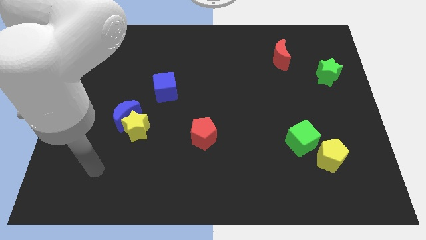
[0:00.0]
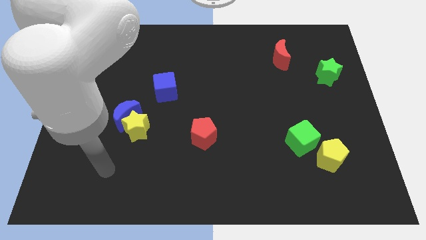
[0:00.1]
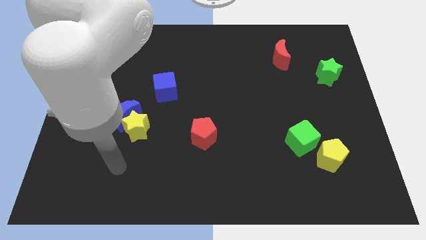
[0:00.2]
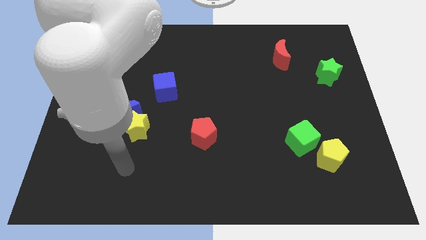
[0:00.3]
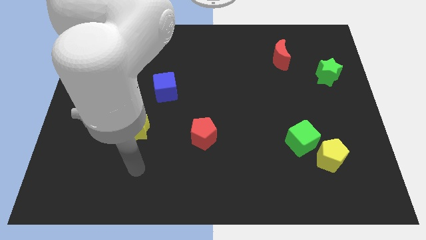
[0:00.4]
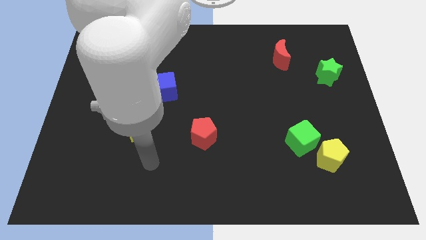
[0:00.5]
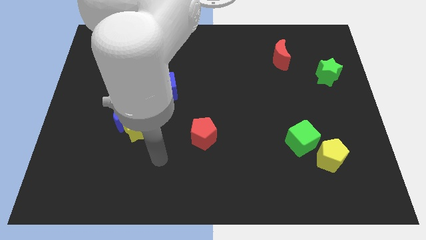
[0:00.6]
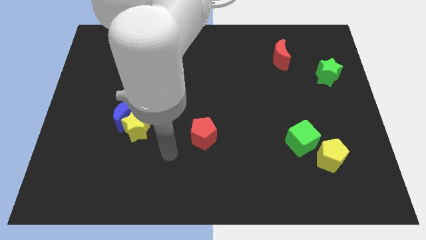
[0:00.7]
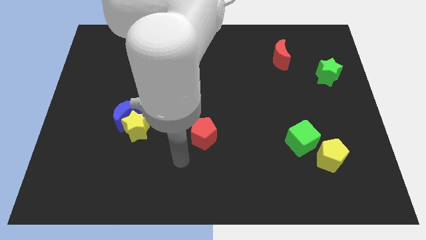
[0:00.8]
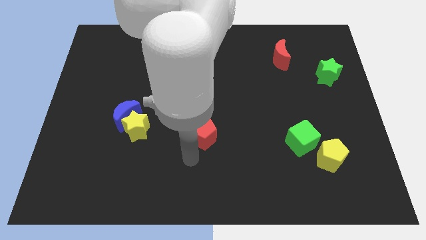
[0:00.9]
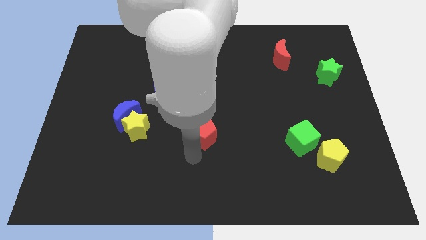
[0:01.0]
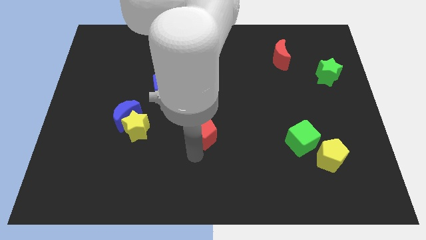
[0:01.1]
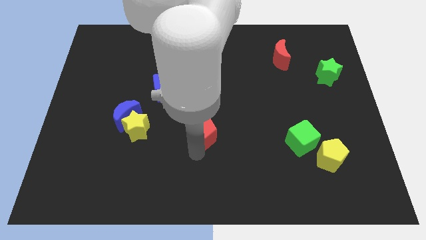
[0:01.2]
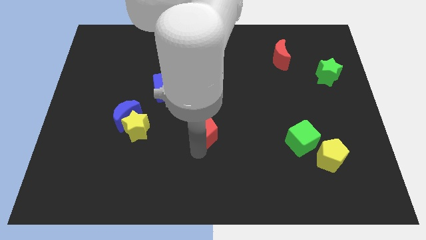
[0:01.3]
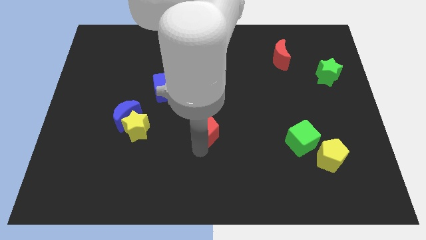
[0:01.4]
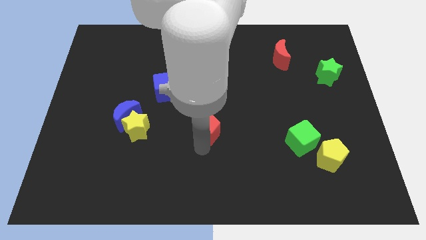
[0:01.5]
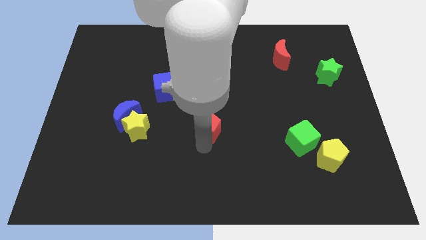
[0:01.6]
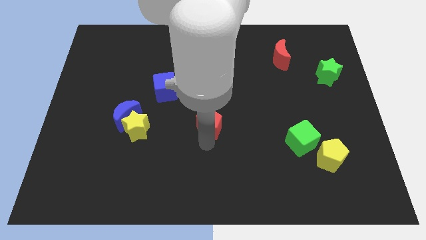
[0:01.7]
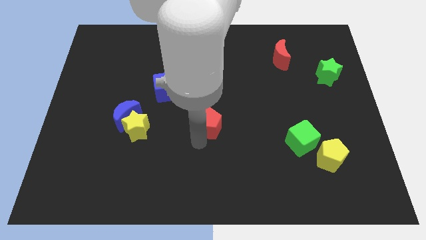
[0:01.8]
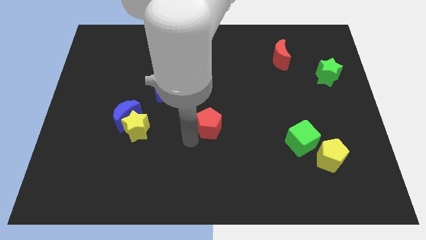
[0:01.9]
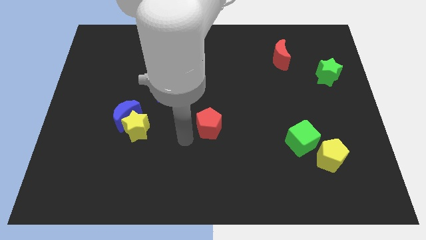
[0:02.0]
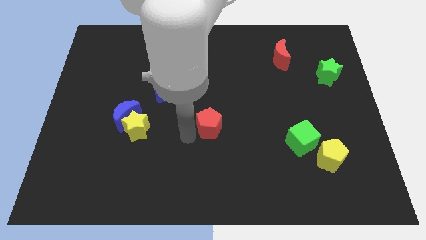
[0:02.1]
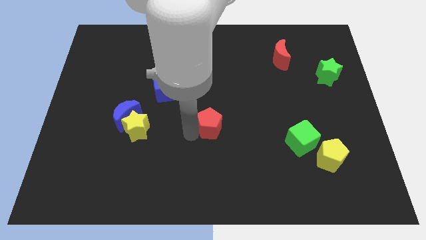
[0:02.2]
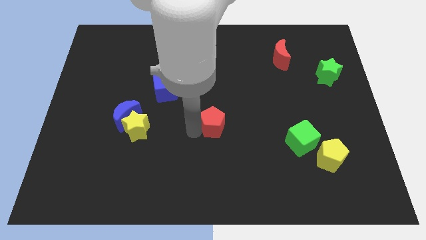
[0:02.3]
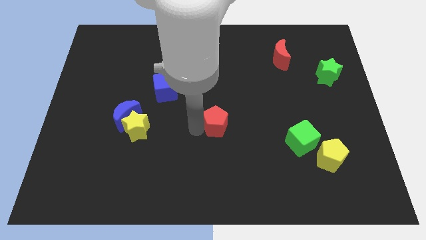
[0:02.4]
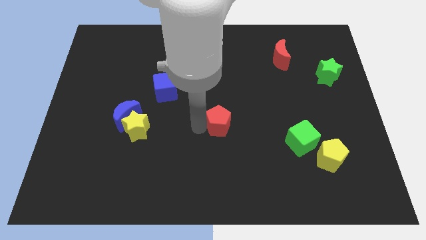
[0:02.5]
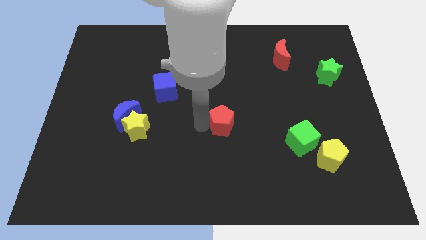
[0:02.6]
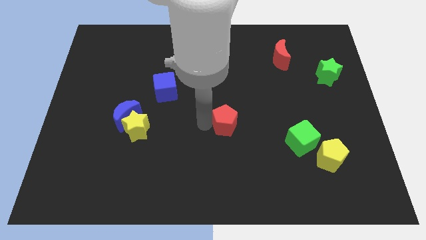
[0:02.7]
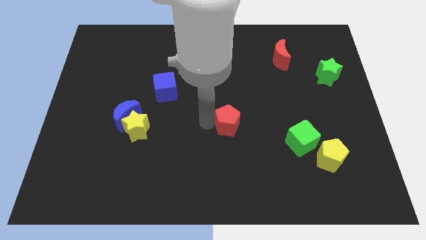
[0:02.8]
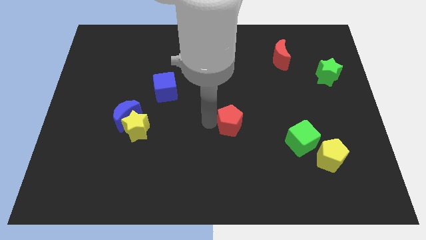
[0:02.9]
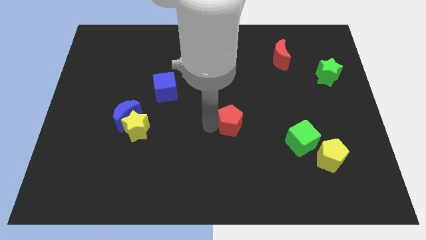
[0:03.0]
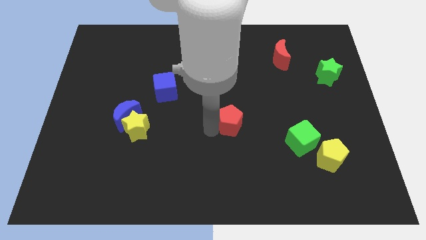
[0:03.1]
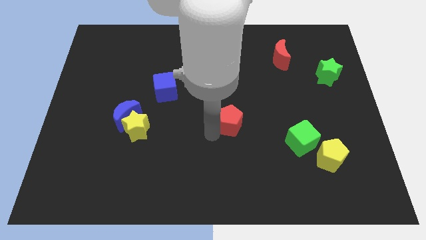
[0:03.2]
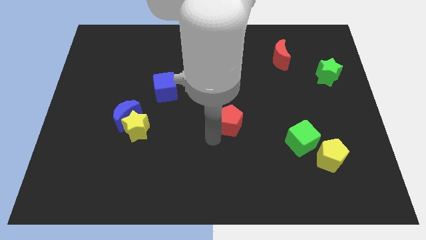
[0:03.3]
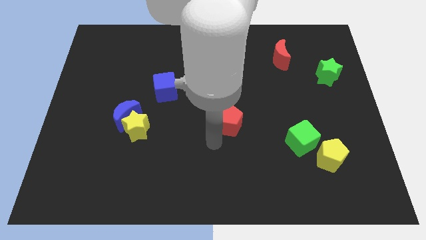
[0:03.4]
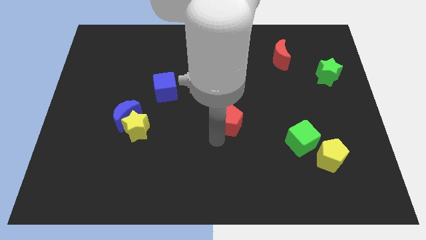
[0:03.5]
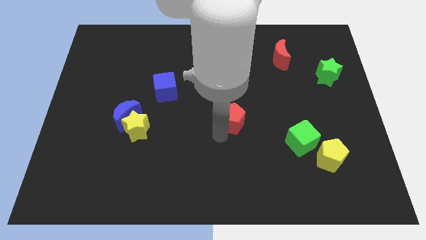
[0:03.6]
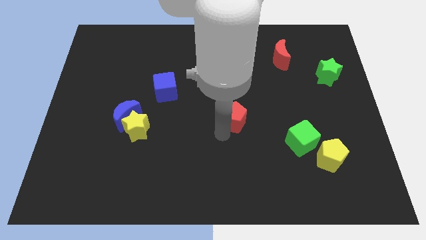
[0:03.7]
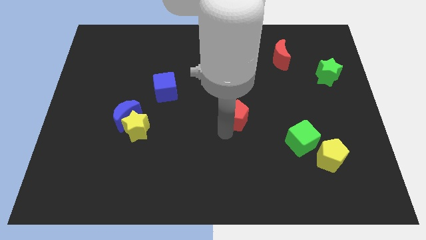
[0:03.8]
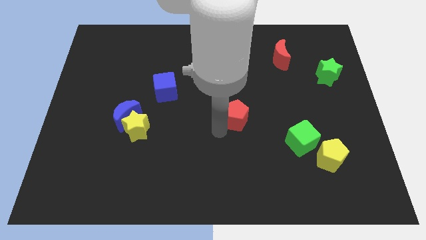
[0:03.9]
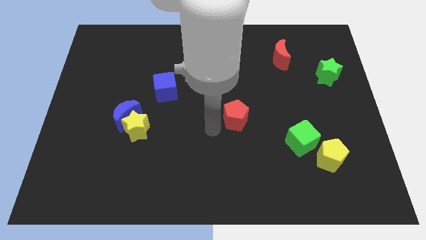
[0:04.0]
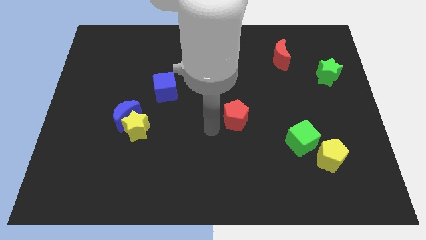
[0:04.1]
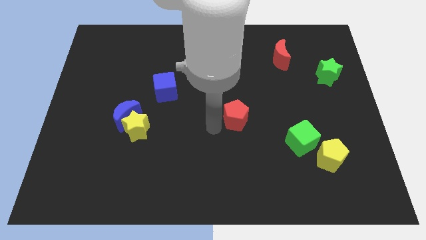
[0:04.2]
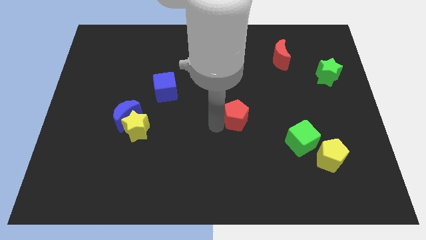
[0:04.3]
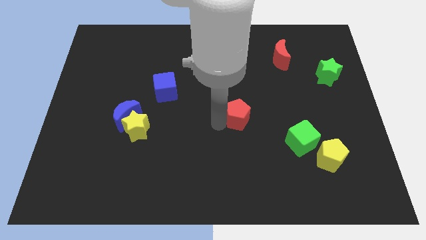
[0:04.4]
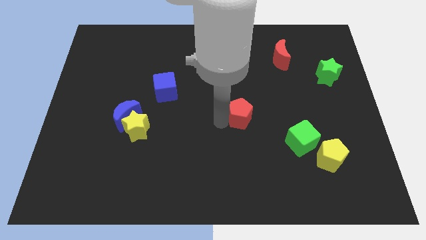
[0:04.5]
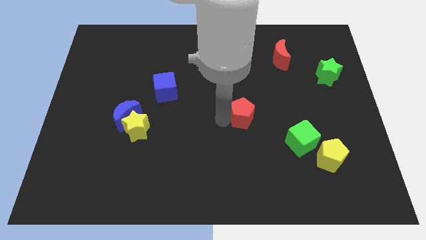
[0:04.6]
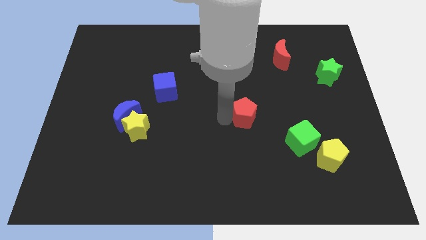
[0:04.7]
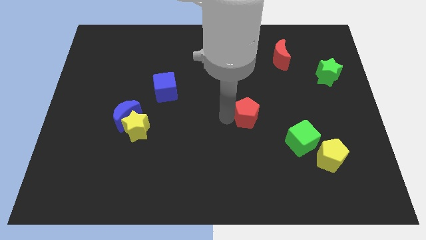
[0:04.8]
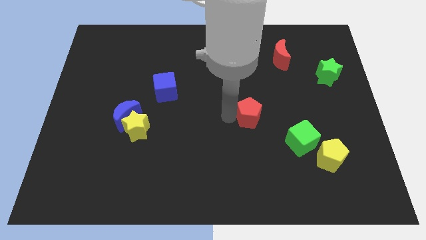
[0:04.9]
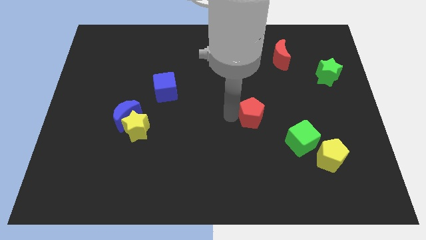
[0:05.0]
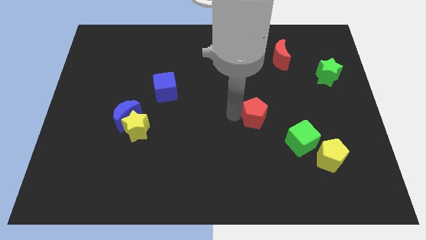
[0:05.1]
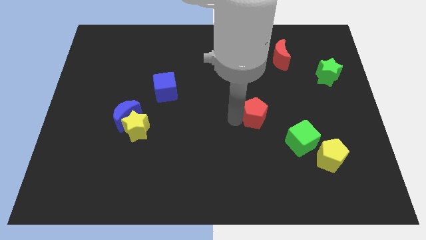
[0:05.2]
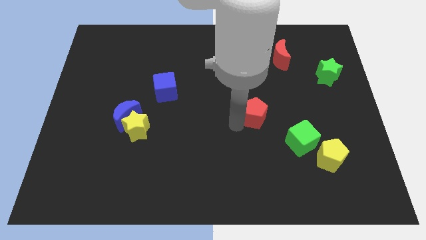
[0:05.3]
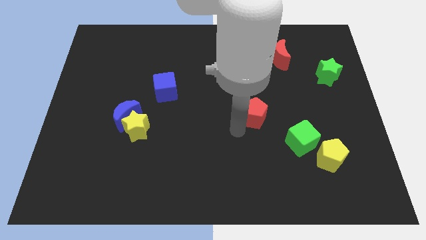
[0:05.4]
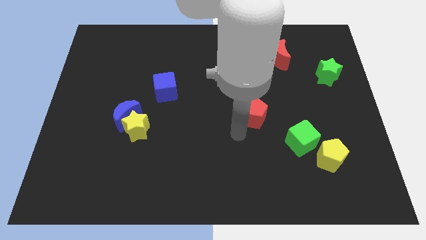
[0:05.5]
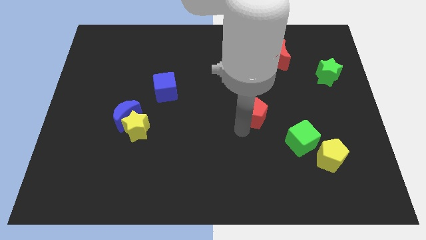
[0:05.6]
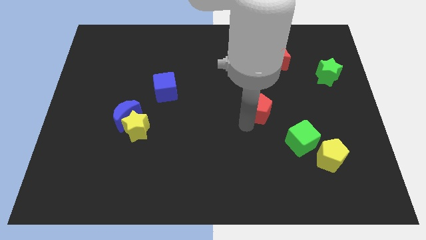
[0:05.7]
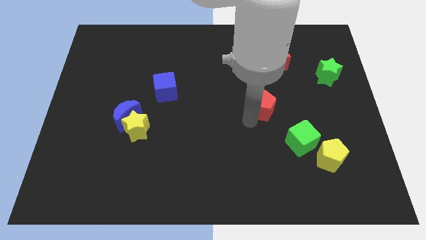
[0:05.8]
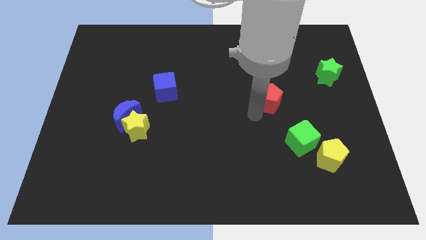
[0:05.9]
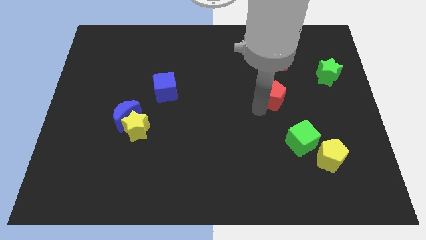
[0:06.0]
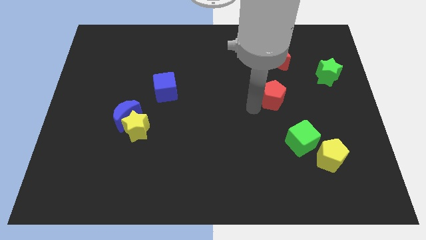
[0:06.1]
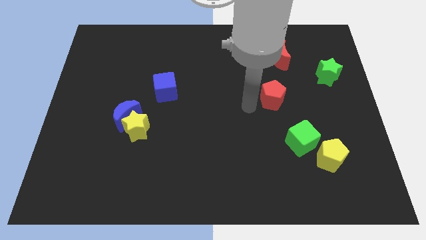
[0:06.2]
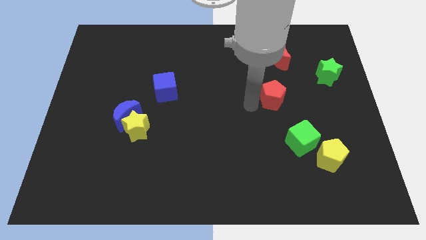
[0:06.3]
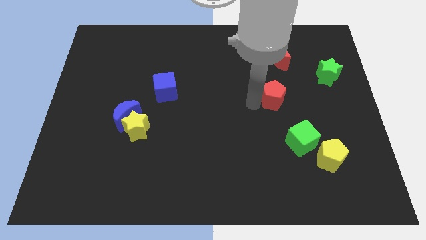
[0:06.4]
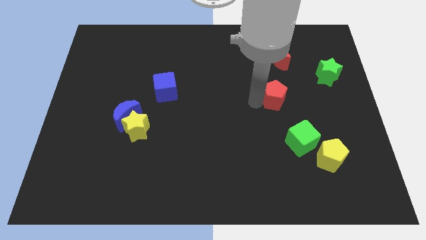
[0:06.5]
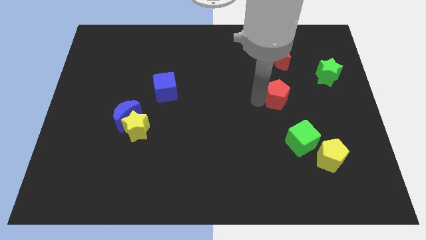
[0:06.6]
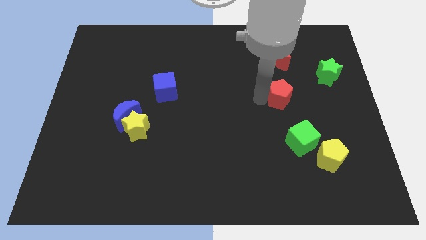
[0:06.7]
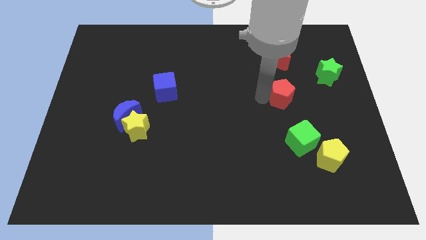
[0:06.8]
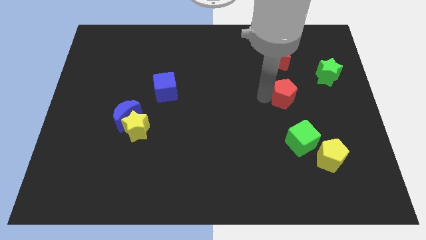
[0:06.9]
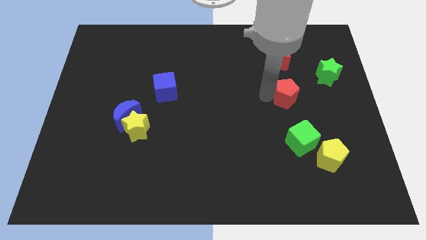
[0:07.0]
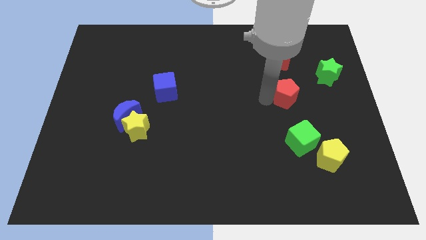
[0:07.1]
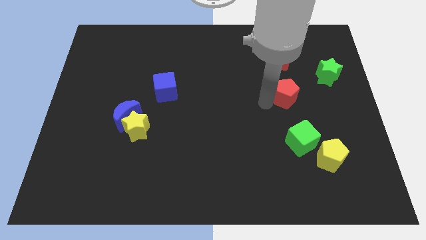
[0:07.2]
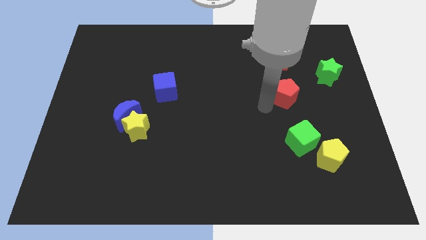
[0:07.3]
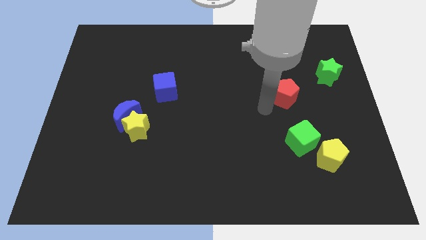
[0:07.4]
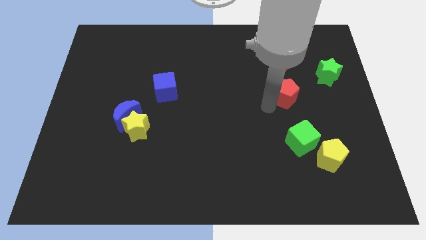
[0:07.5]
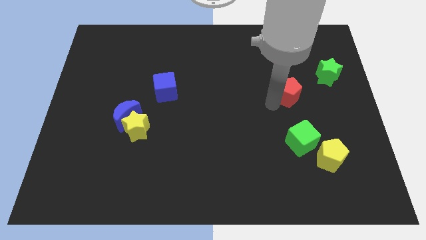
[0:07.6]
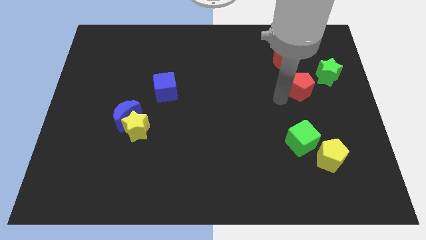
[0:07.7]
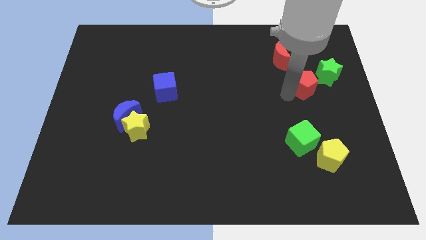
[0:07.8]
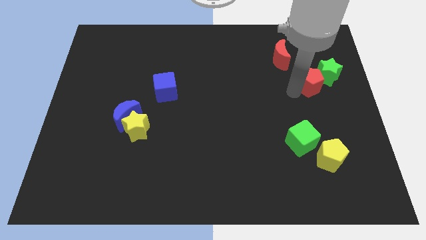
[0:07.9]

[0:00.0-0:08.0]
move the red pentagon next to the green star

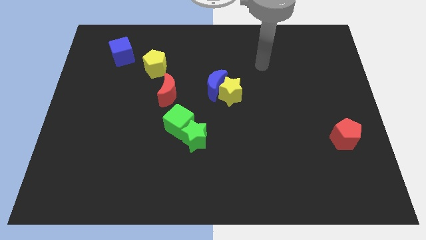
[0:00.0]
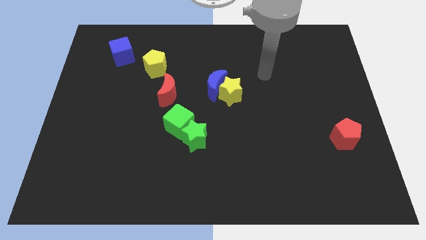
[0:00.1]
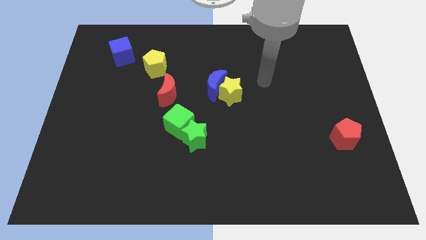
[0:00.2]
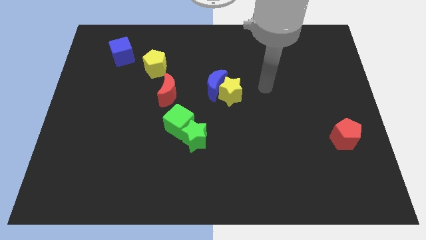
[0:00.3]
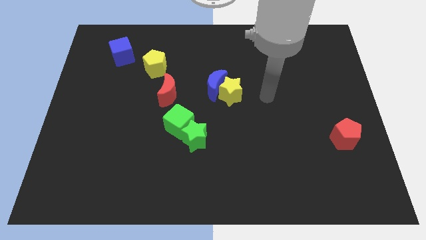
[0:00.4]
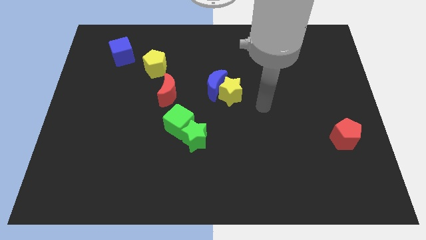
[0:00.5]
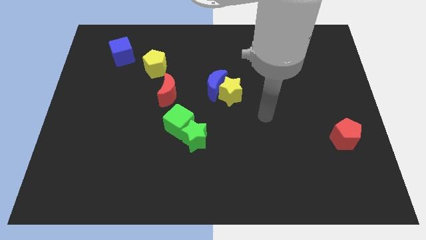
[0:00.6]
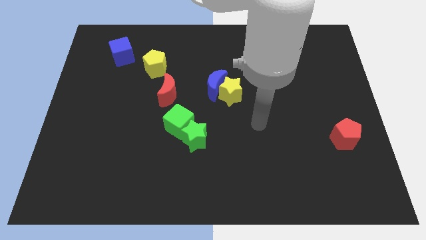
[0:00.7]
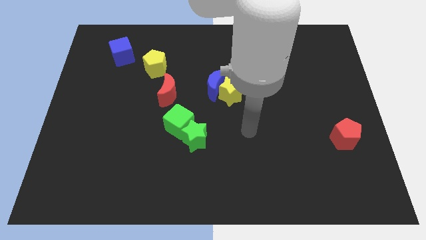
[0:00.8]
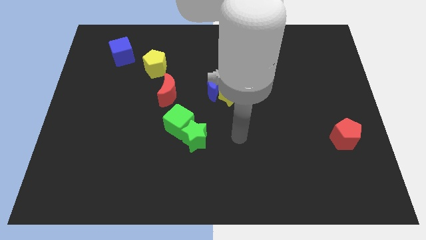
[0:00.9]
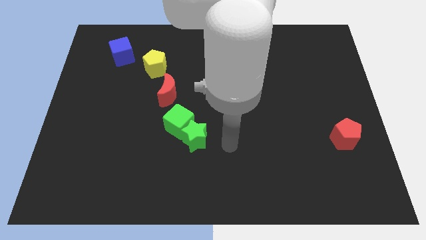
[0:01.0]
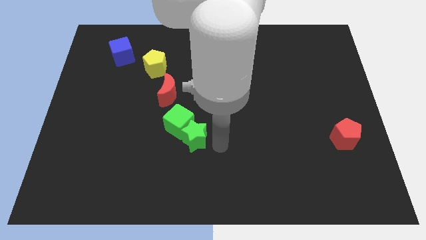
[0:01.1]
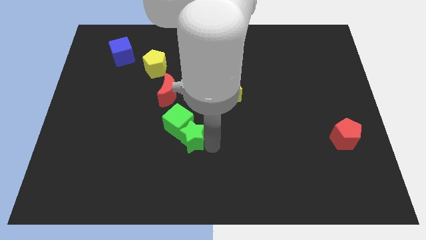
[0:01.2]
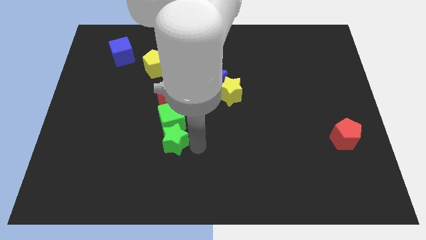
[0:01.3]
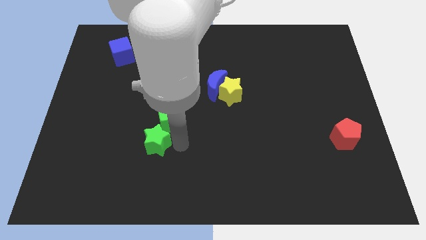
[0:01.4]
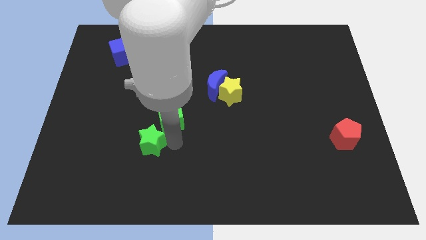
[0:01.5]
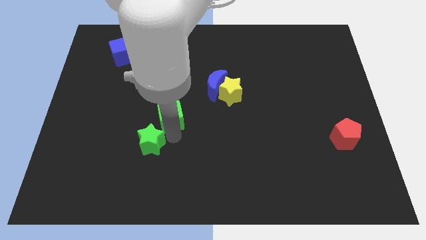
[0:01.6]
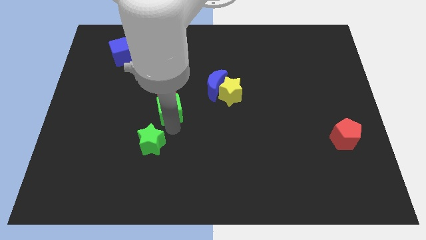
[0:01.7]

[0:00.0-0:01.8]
slide the green cube next to the red moon
